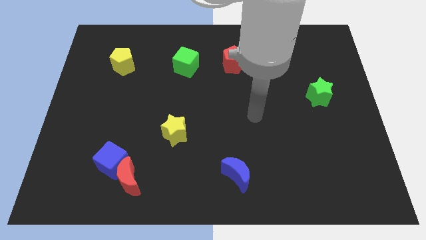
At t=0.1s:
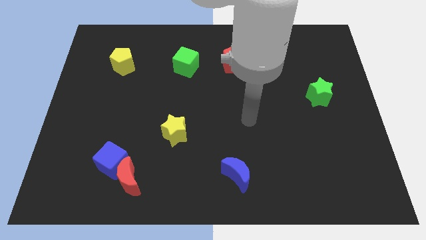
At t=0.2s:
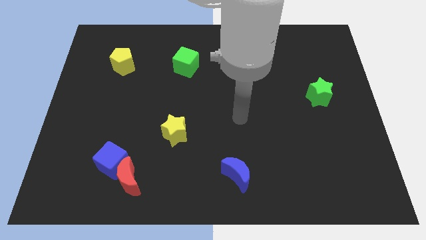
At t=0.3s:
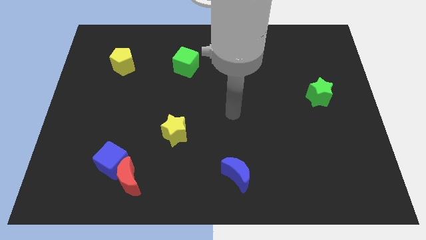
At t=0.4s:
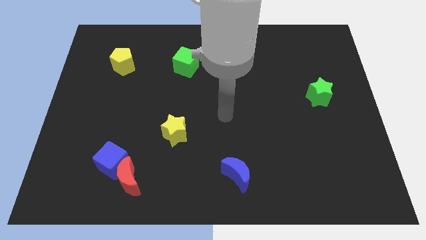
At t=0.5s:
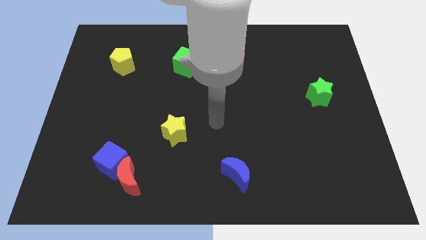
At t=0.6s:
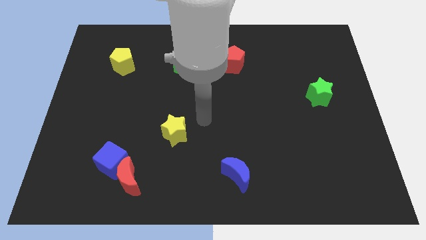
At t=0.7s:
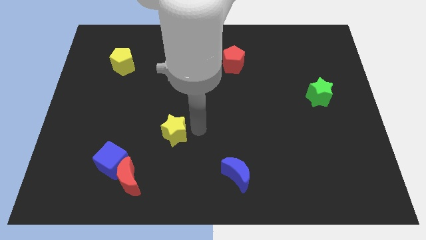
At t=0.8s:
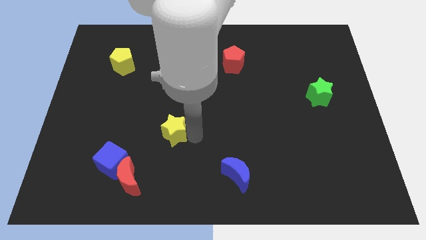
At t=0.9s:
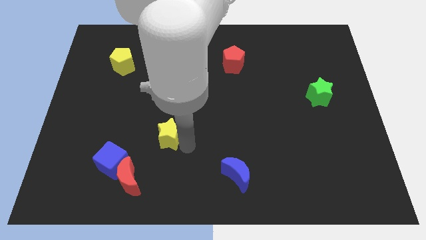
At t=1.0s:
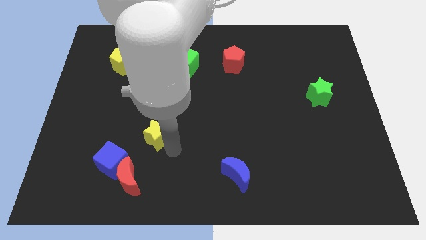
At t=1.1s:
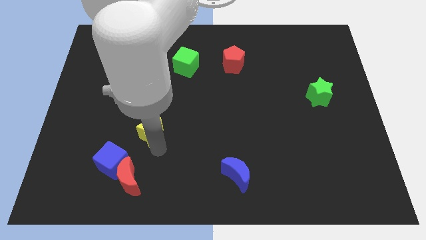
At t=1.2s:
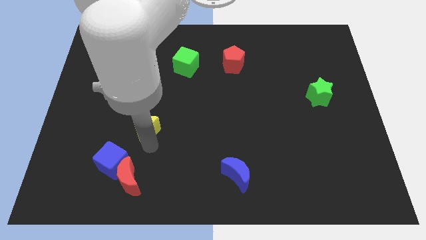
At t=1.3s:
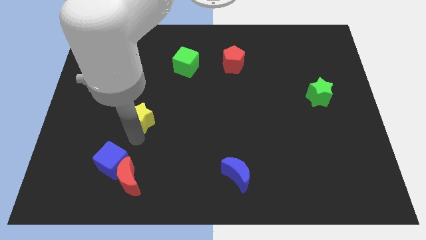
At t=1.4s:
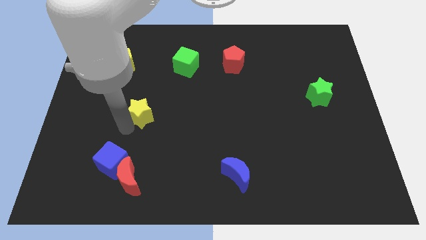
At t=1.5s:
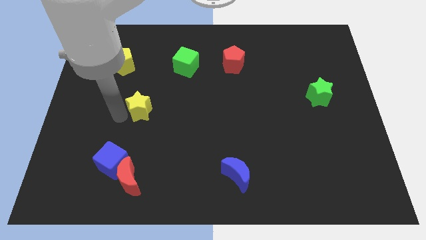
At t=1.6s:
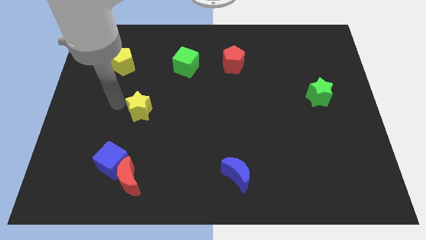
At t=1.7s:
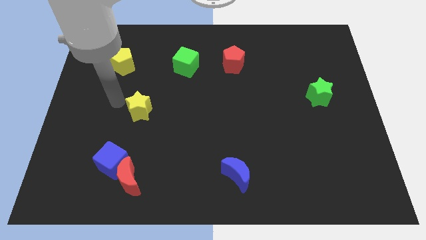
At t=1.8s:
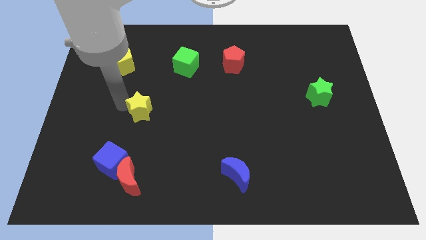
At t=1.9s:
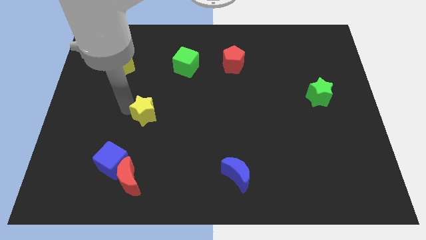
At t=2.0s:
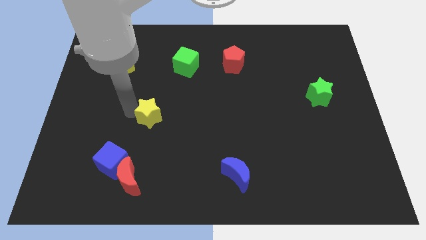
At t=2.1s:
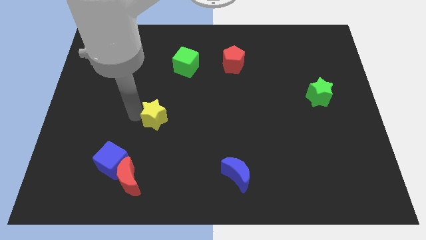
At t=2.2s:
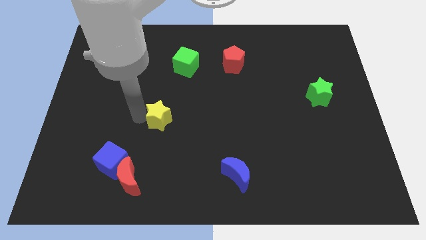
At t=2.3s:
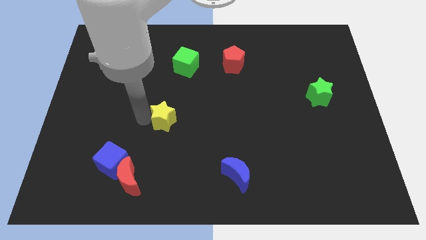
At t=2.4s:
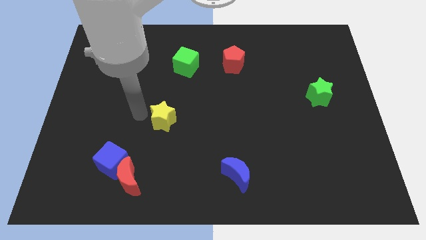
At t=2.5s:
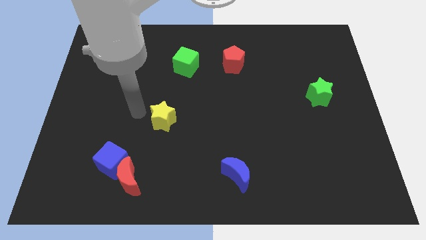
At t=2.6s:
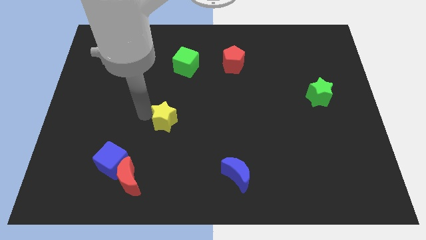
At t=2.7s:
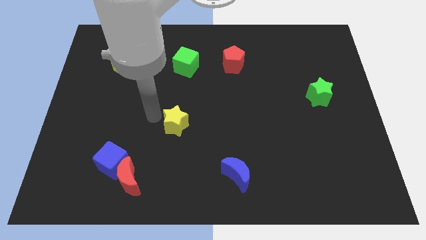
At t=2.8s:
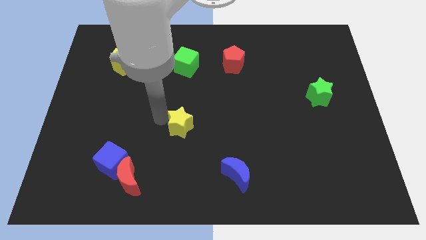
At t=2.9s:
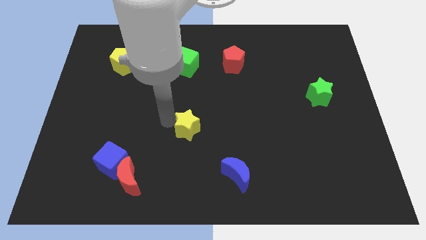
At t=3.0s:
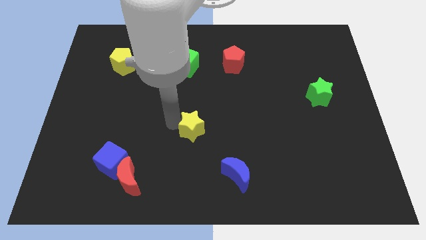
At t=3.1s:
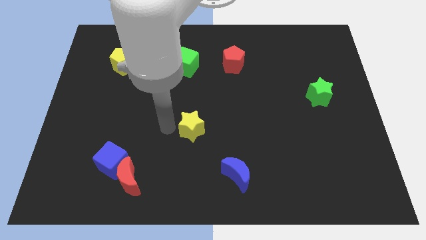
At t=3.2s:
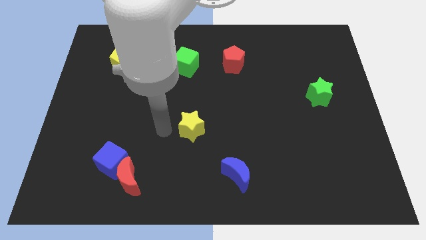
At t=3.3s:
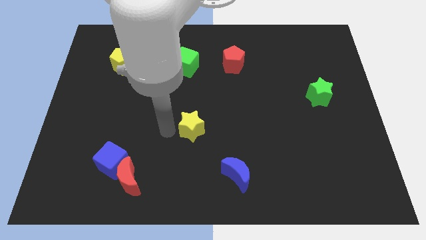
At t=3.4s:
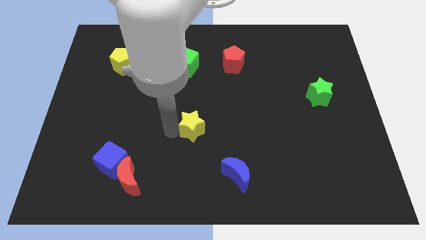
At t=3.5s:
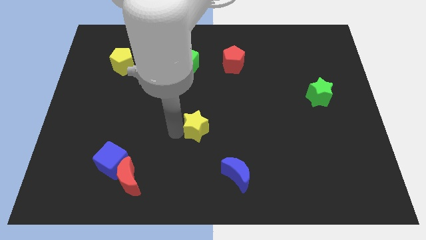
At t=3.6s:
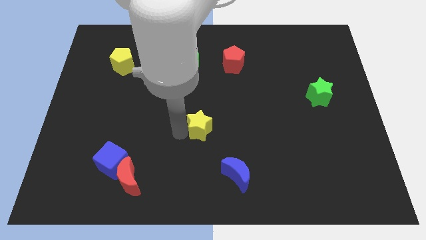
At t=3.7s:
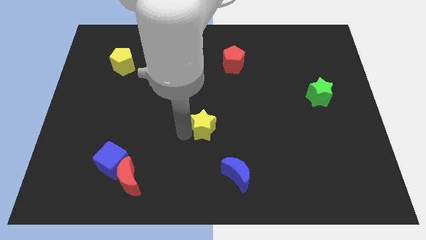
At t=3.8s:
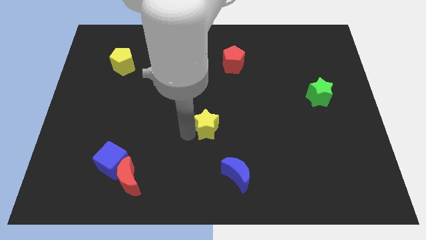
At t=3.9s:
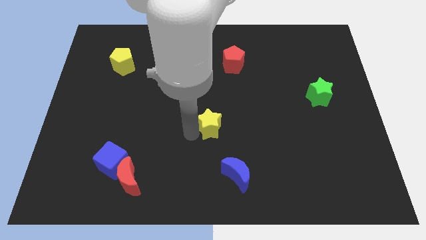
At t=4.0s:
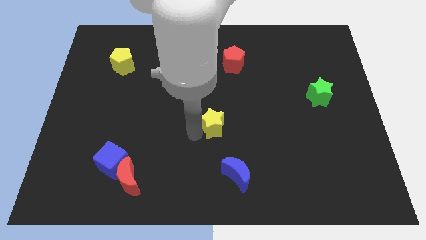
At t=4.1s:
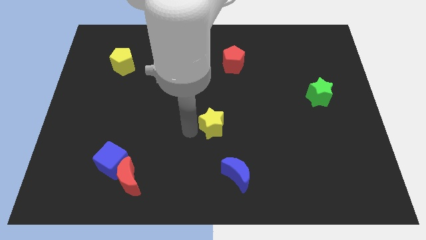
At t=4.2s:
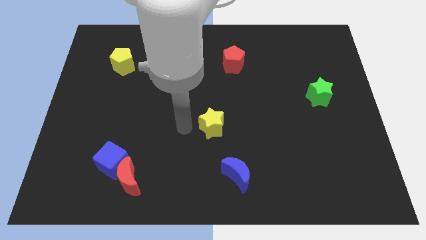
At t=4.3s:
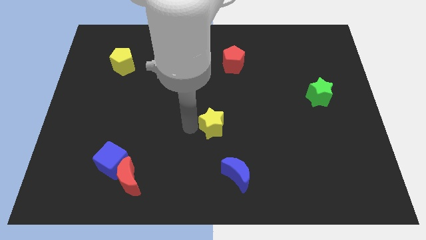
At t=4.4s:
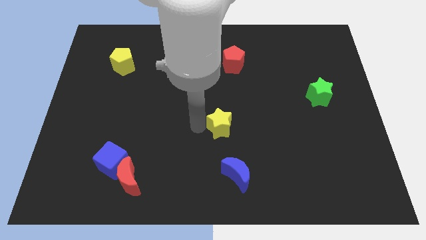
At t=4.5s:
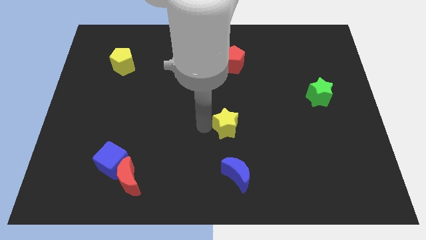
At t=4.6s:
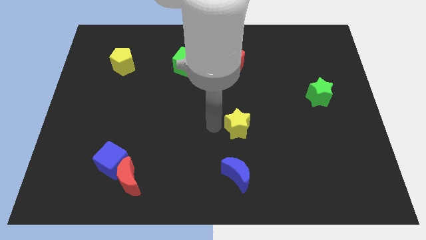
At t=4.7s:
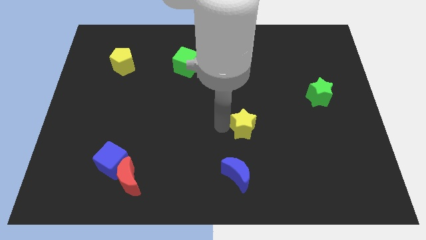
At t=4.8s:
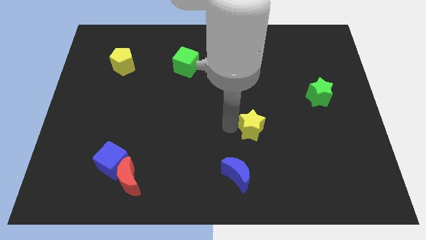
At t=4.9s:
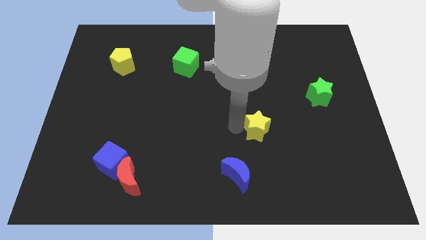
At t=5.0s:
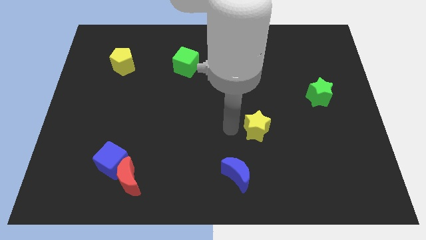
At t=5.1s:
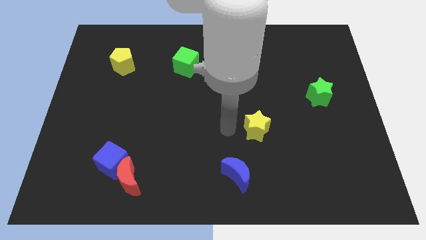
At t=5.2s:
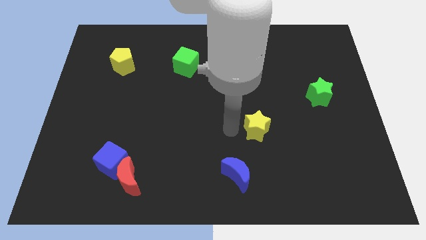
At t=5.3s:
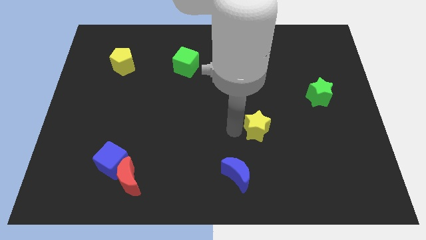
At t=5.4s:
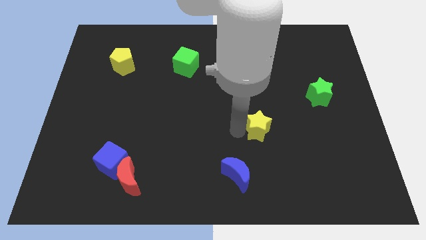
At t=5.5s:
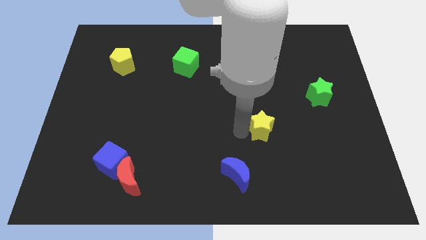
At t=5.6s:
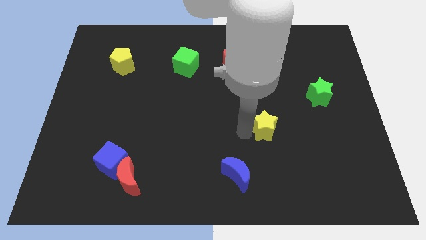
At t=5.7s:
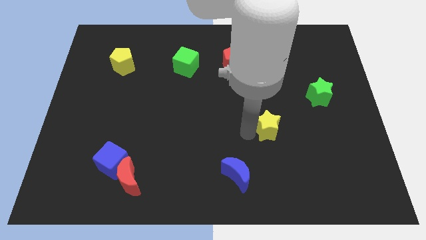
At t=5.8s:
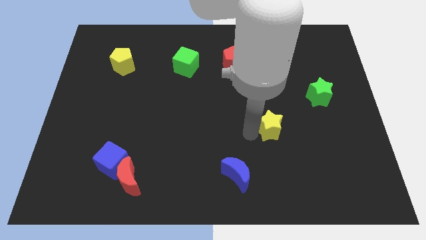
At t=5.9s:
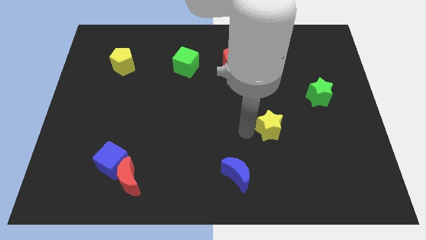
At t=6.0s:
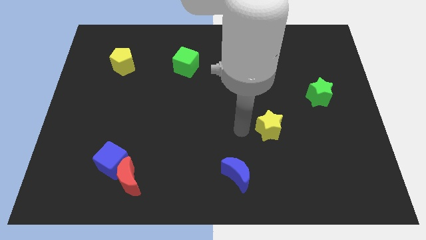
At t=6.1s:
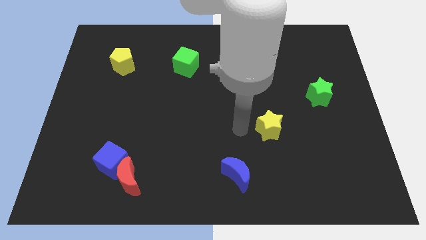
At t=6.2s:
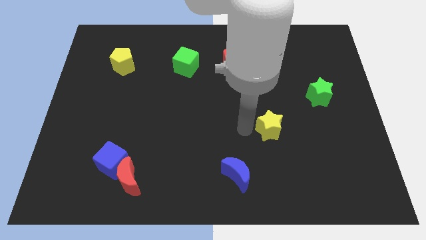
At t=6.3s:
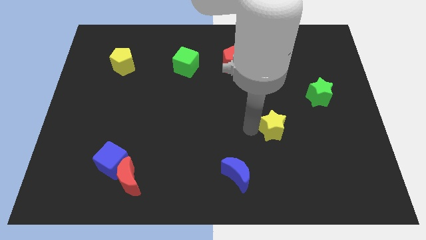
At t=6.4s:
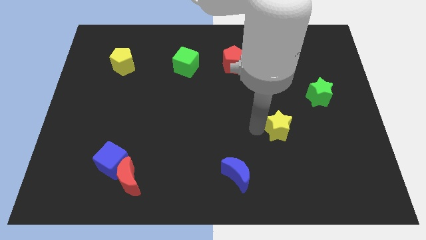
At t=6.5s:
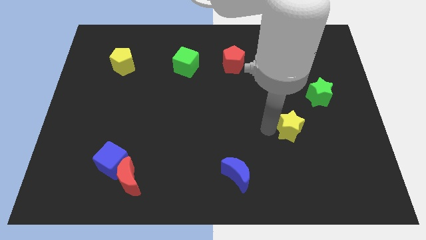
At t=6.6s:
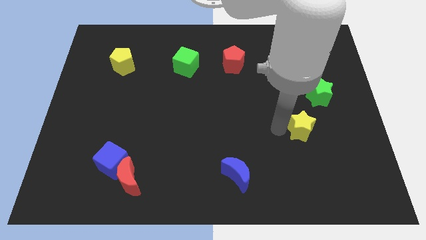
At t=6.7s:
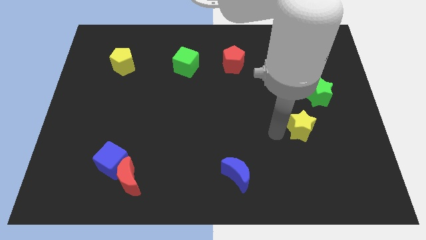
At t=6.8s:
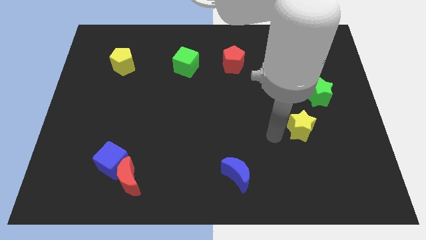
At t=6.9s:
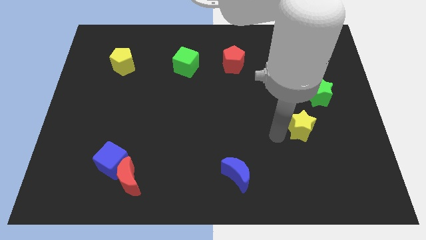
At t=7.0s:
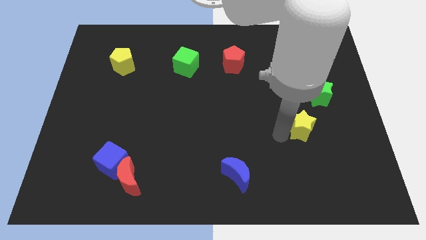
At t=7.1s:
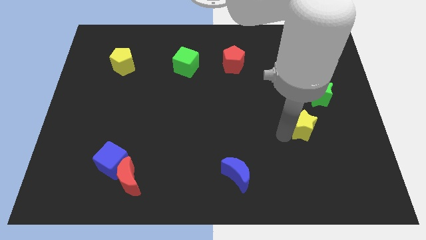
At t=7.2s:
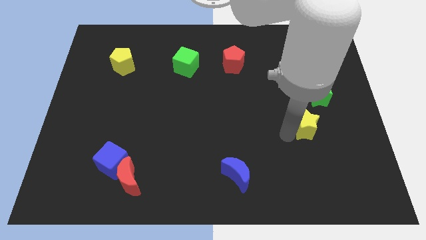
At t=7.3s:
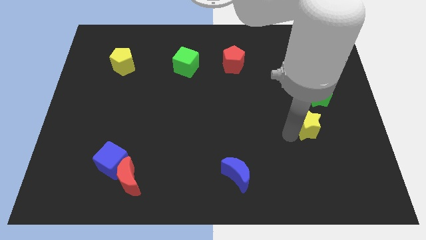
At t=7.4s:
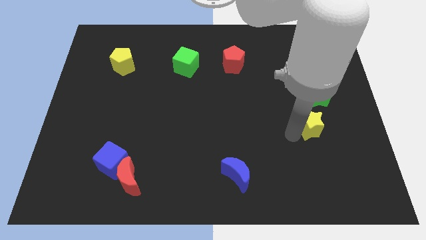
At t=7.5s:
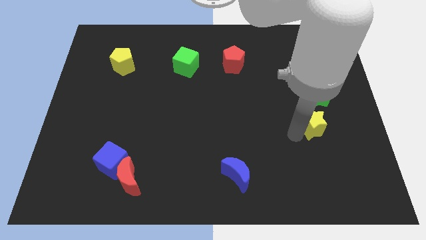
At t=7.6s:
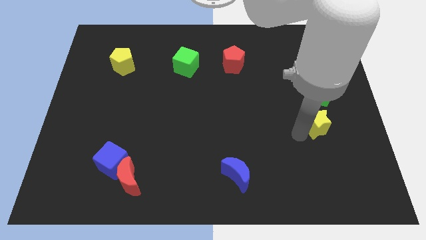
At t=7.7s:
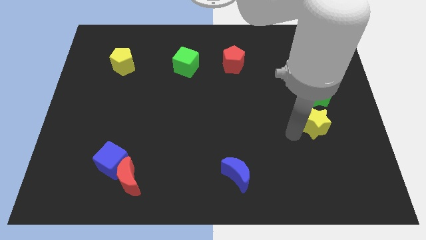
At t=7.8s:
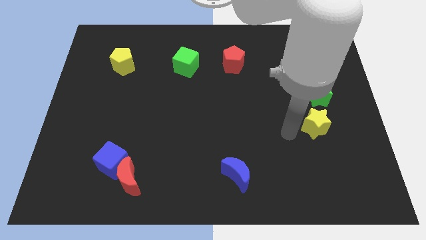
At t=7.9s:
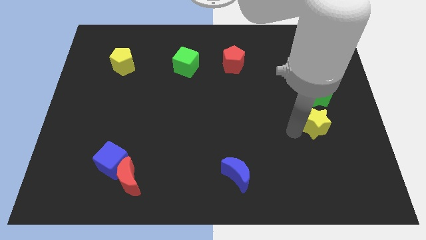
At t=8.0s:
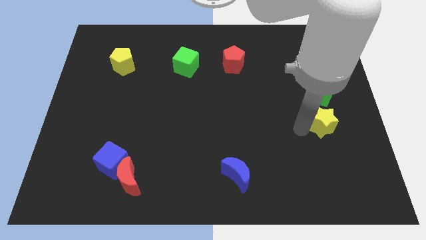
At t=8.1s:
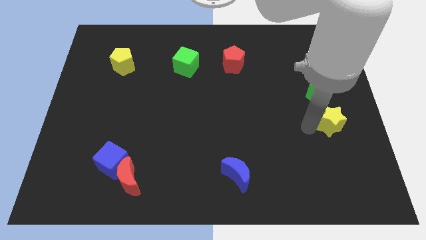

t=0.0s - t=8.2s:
put the yellow star to the right side of the board
